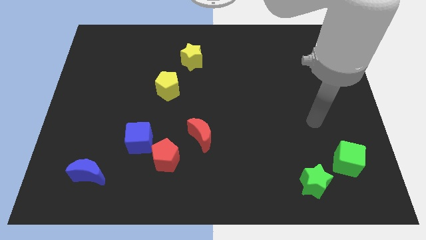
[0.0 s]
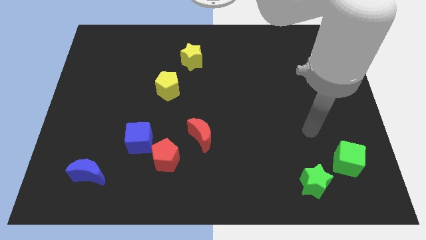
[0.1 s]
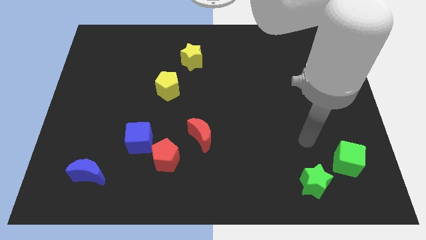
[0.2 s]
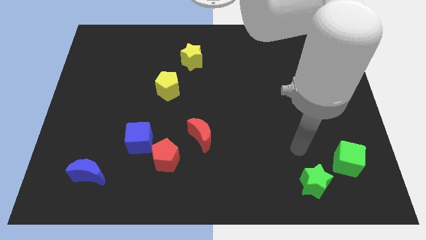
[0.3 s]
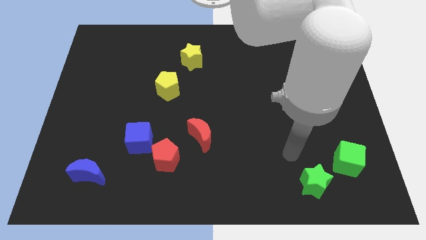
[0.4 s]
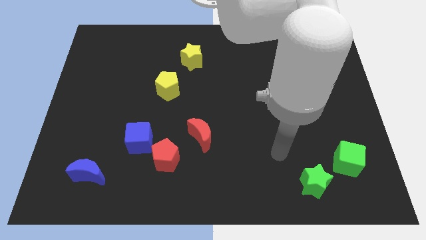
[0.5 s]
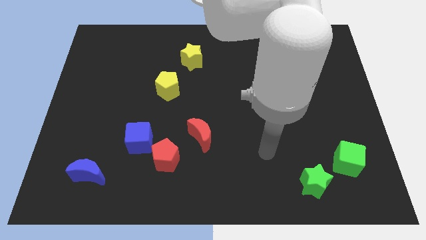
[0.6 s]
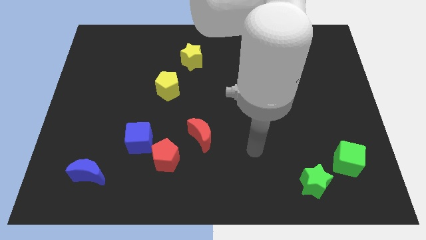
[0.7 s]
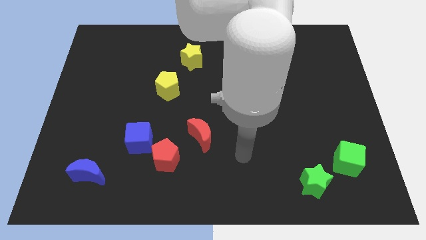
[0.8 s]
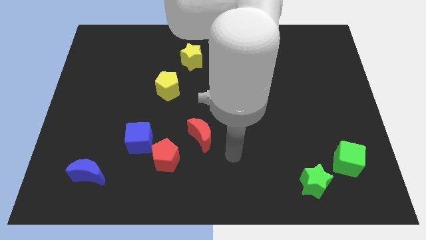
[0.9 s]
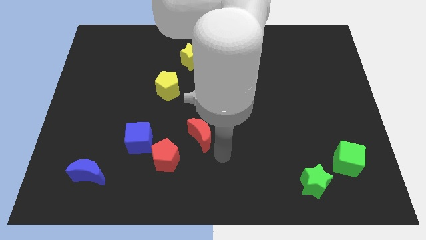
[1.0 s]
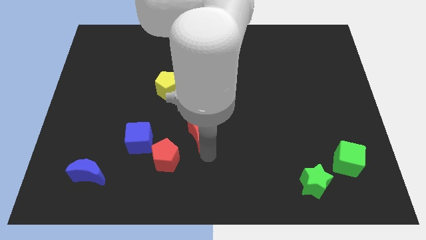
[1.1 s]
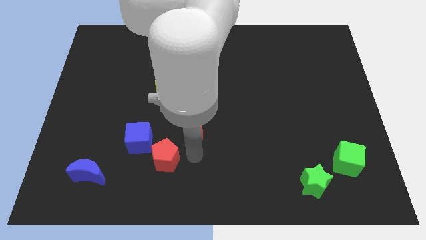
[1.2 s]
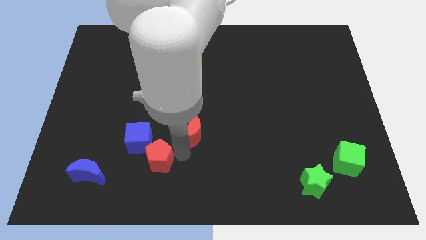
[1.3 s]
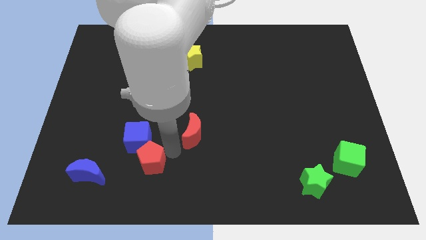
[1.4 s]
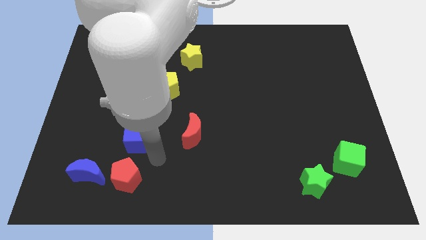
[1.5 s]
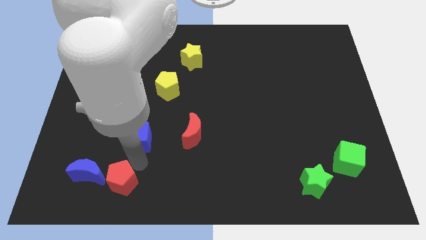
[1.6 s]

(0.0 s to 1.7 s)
move the blue cube away from the red pentagon

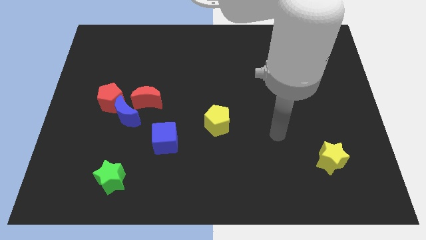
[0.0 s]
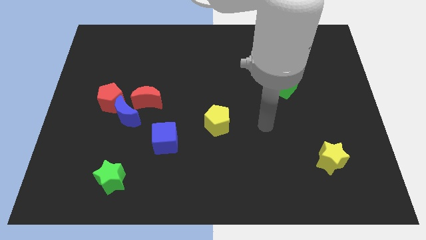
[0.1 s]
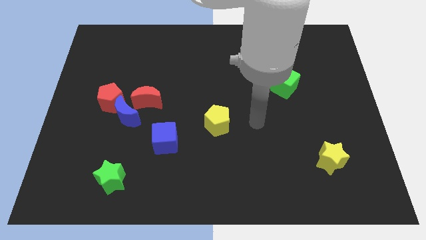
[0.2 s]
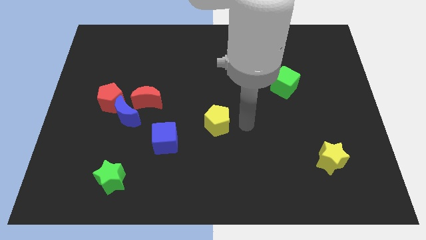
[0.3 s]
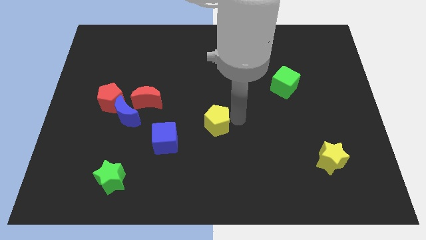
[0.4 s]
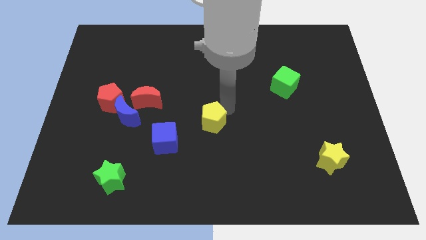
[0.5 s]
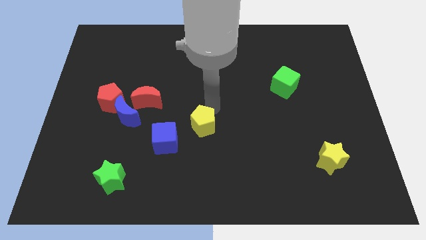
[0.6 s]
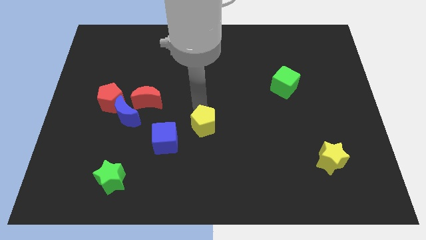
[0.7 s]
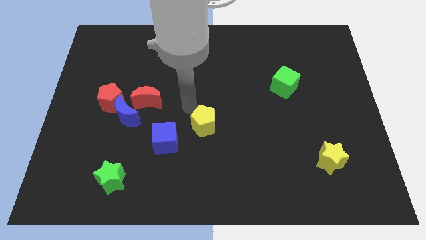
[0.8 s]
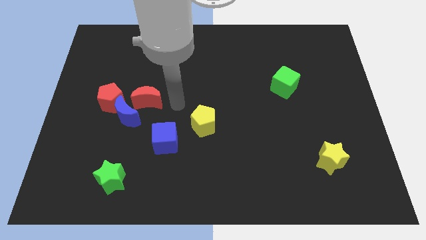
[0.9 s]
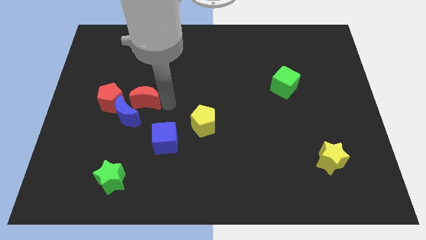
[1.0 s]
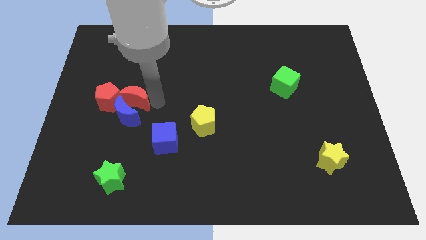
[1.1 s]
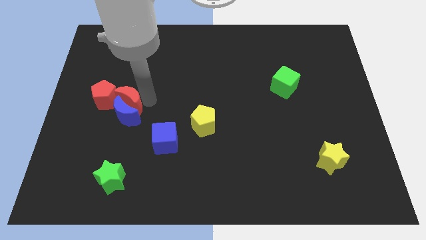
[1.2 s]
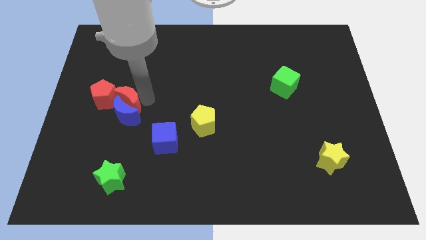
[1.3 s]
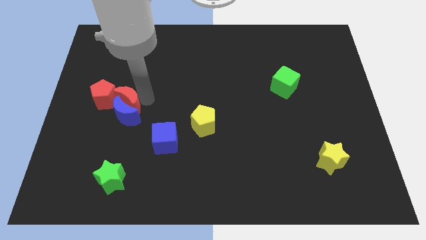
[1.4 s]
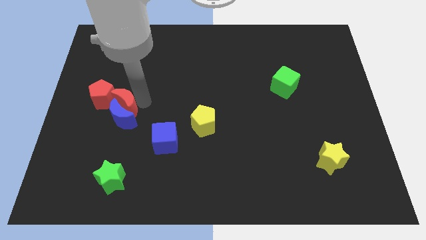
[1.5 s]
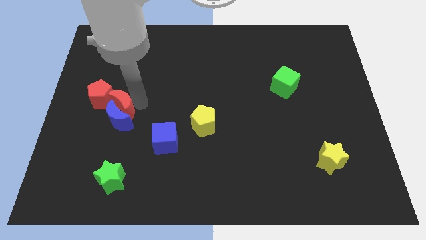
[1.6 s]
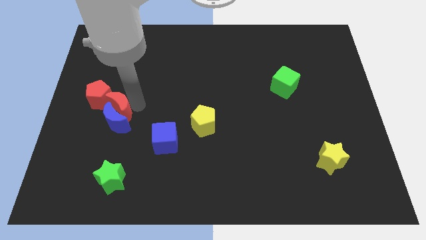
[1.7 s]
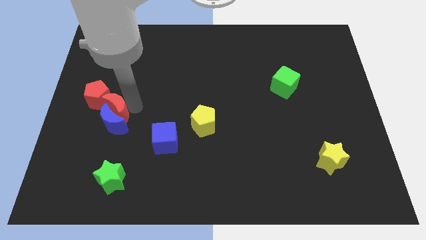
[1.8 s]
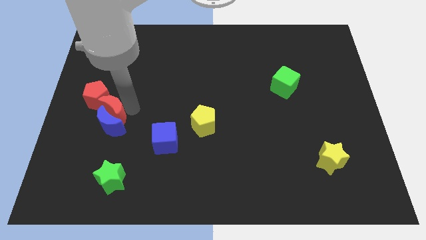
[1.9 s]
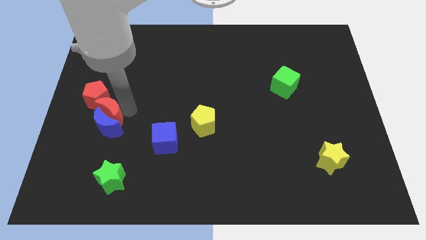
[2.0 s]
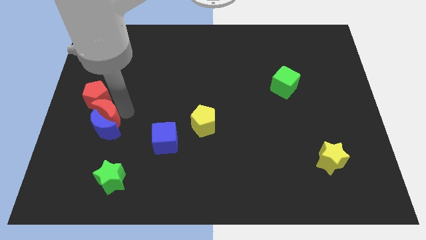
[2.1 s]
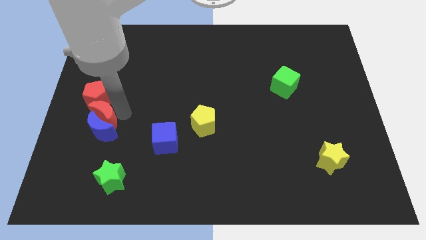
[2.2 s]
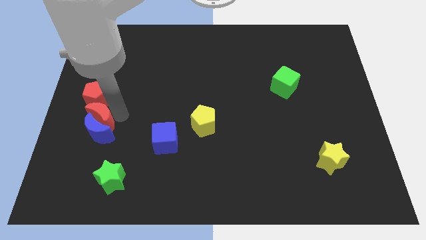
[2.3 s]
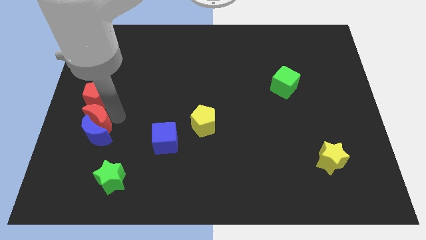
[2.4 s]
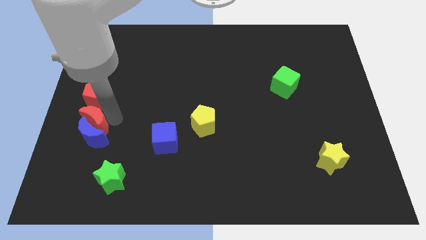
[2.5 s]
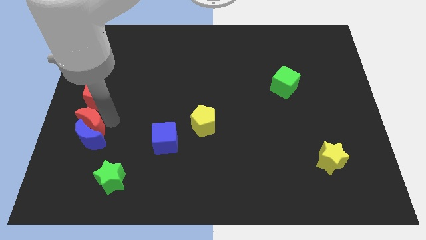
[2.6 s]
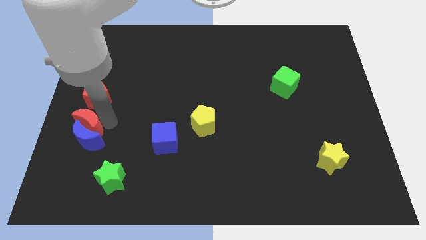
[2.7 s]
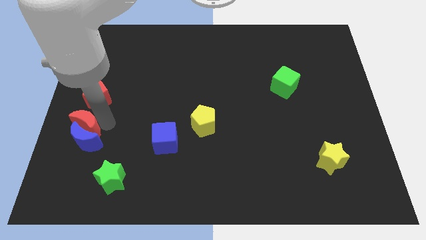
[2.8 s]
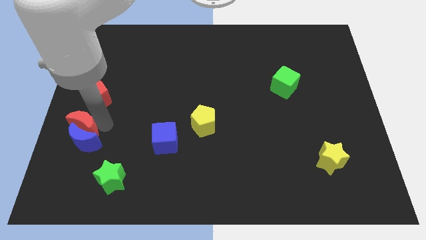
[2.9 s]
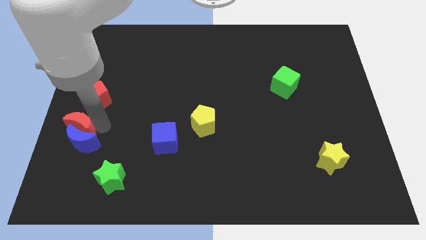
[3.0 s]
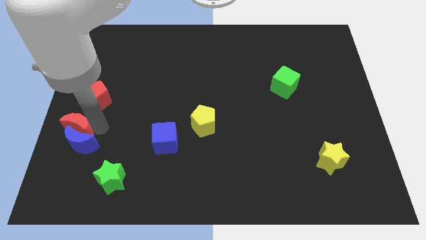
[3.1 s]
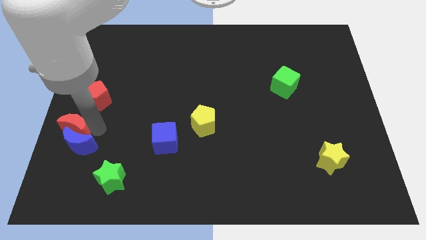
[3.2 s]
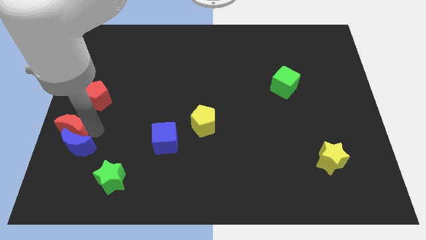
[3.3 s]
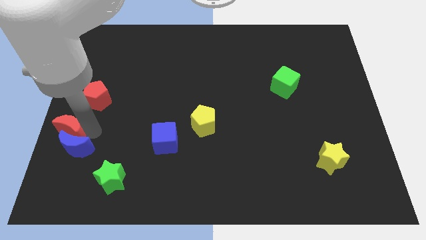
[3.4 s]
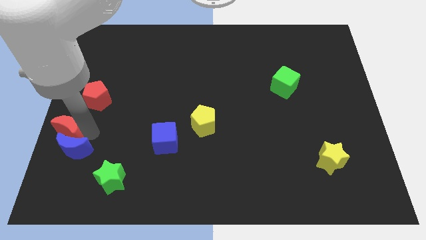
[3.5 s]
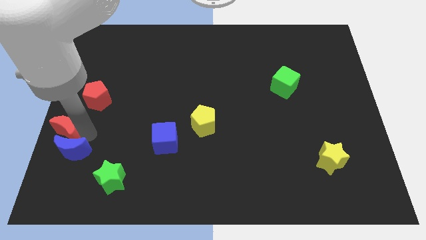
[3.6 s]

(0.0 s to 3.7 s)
pull the blue moon apart from the red pentagon and red moon

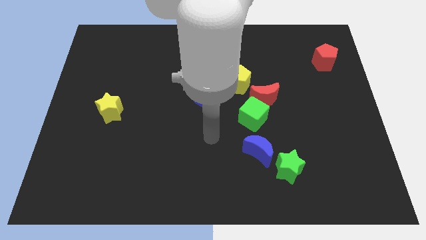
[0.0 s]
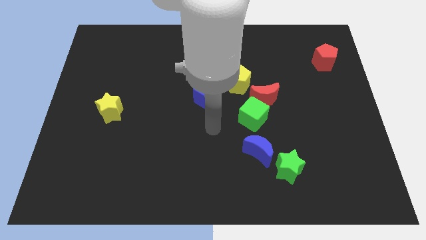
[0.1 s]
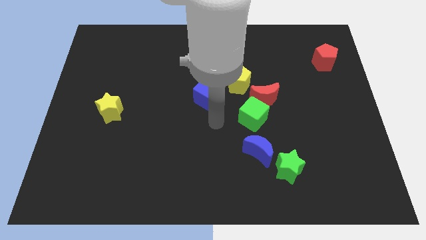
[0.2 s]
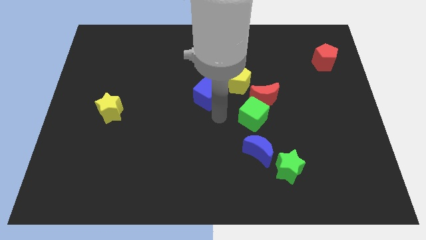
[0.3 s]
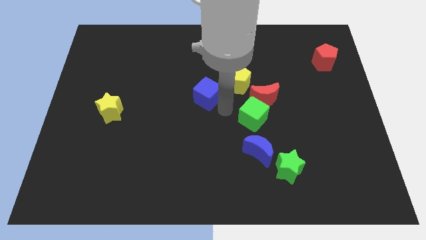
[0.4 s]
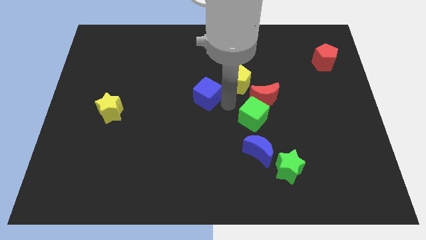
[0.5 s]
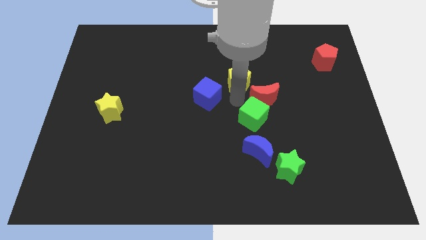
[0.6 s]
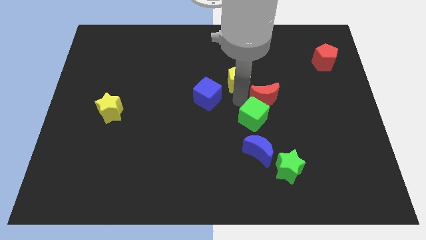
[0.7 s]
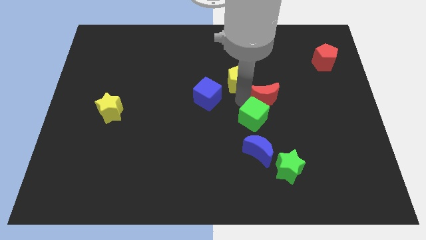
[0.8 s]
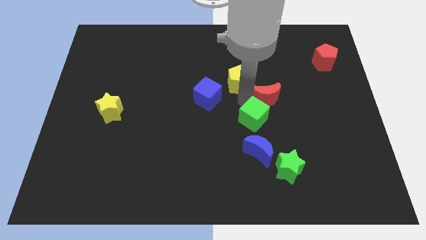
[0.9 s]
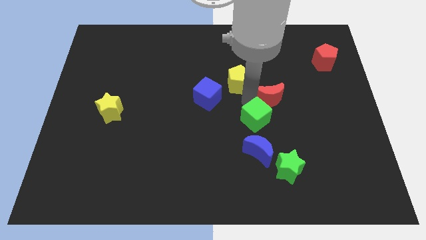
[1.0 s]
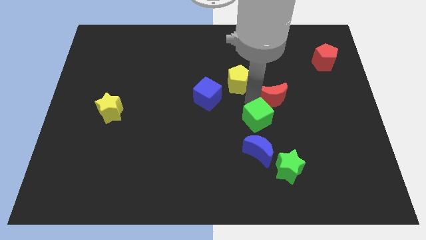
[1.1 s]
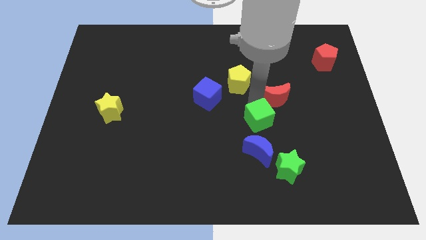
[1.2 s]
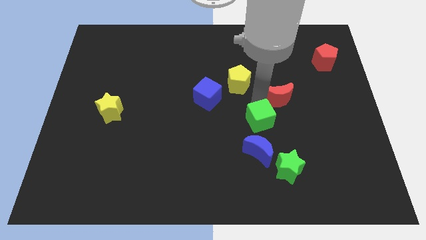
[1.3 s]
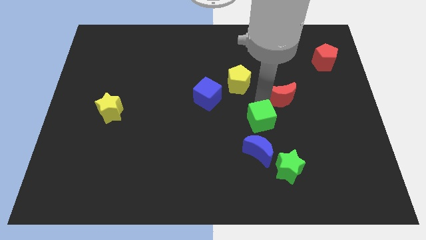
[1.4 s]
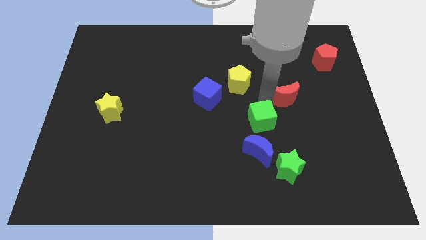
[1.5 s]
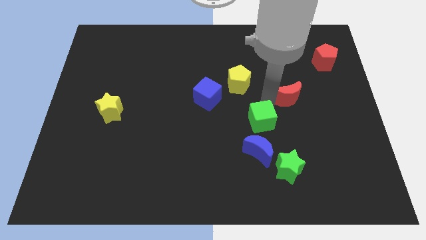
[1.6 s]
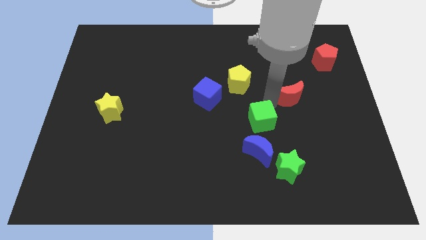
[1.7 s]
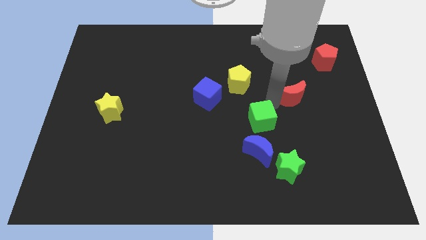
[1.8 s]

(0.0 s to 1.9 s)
move the red moon away from the green cube and yellow pentagon

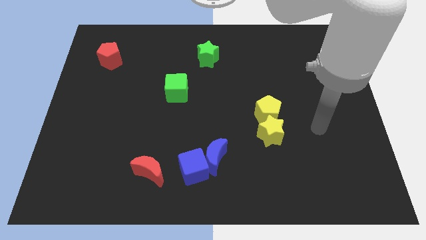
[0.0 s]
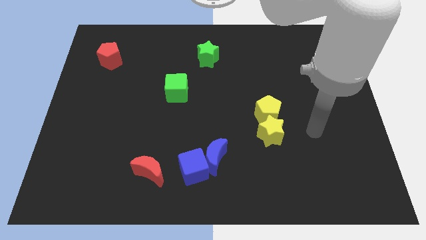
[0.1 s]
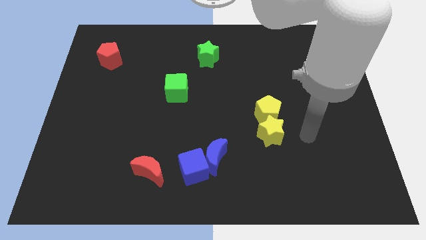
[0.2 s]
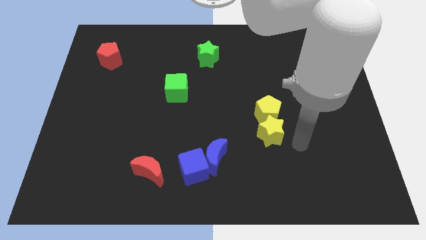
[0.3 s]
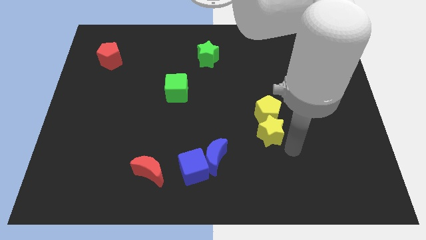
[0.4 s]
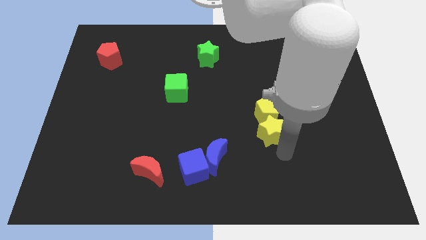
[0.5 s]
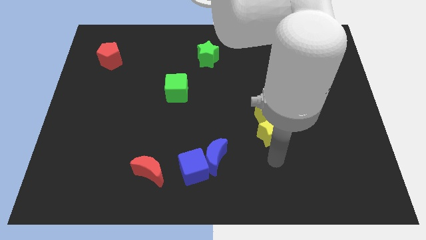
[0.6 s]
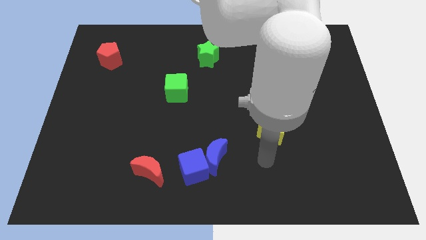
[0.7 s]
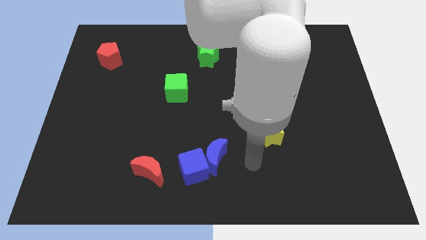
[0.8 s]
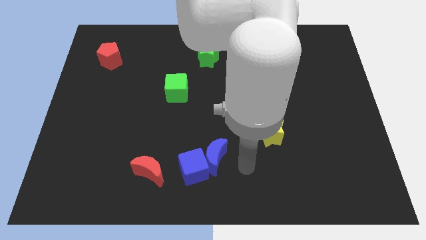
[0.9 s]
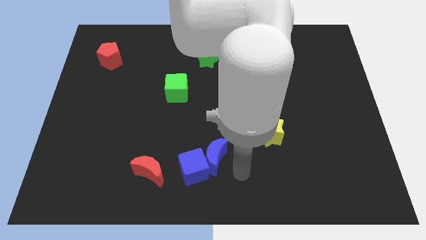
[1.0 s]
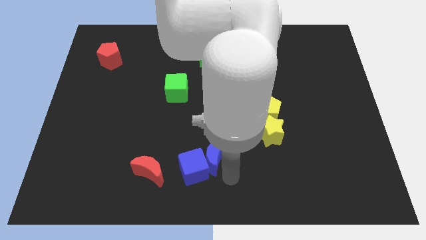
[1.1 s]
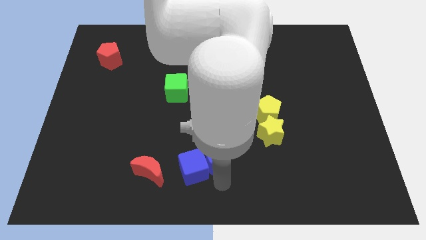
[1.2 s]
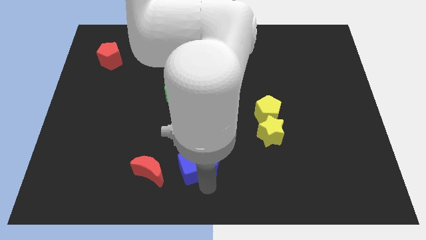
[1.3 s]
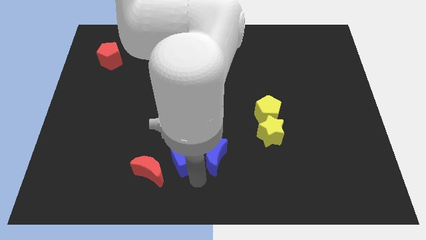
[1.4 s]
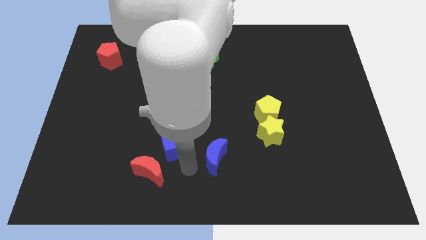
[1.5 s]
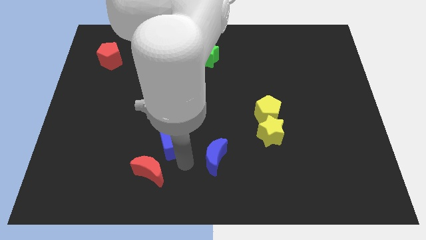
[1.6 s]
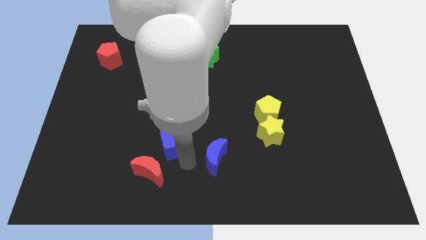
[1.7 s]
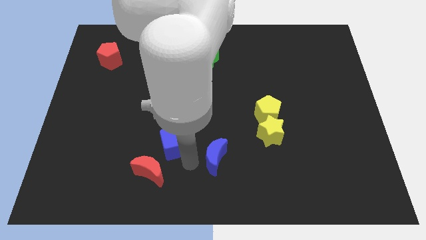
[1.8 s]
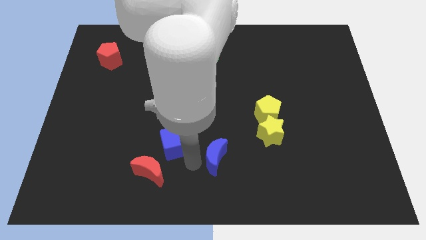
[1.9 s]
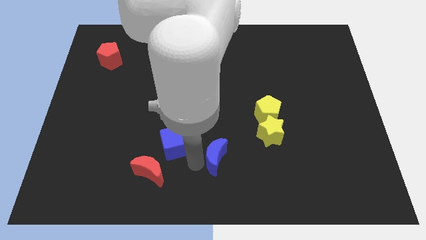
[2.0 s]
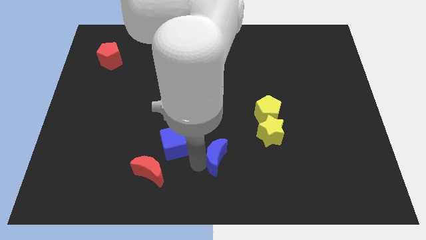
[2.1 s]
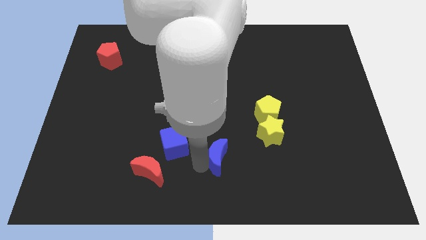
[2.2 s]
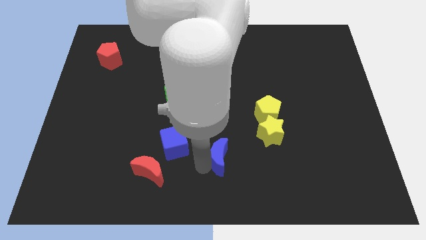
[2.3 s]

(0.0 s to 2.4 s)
move the blue moon away from the blue cube
